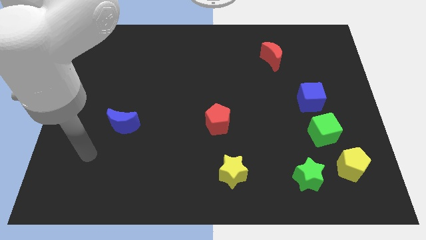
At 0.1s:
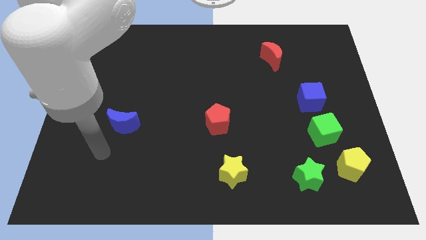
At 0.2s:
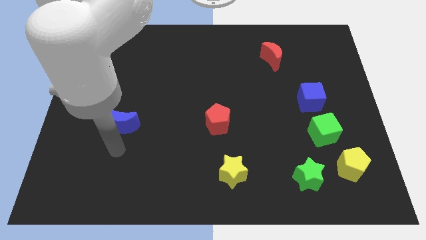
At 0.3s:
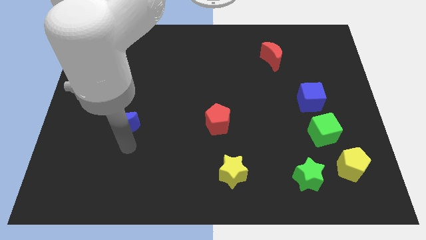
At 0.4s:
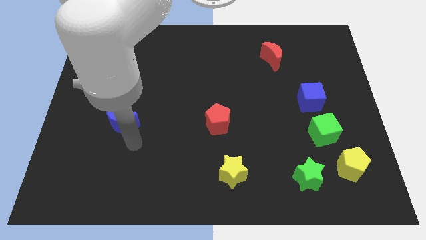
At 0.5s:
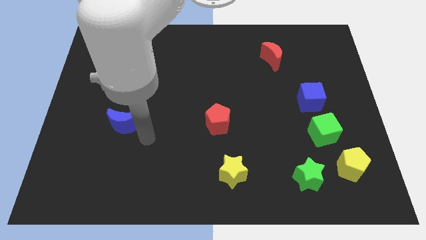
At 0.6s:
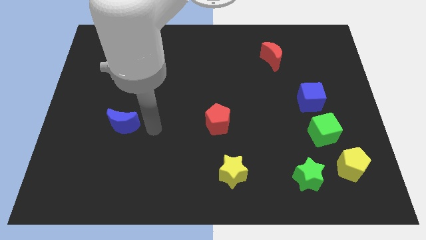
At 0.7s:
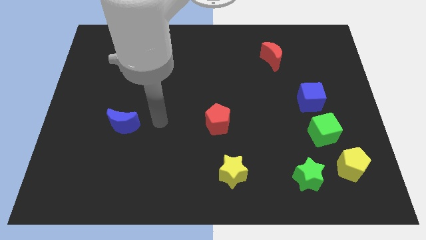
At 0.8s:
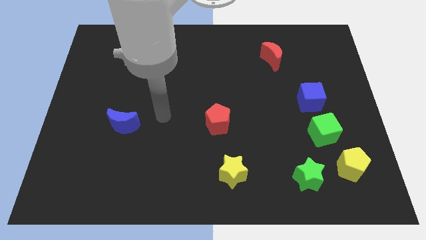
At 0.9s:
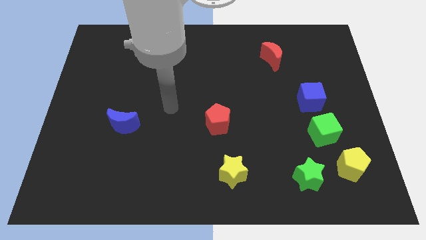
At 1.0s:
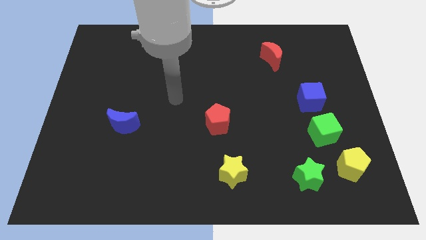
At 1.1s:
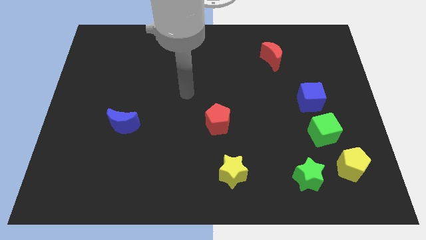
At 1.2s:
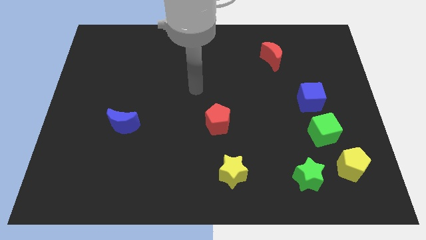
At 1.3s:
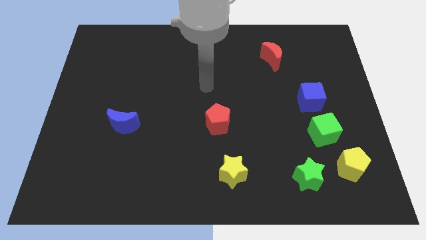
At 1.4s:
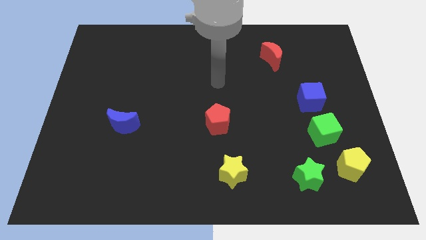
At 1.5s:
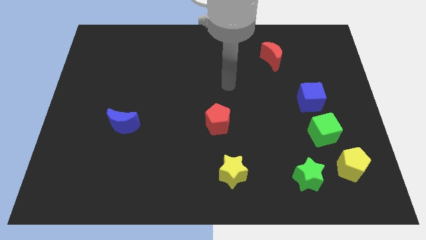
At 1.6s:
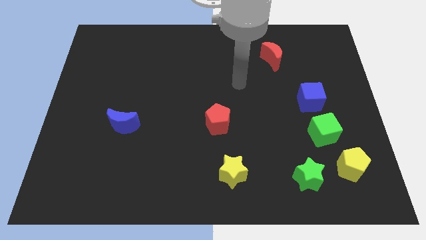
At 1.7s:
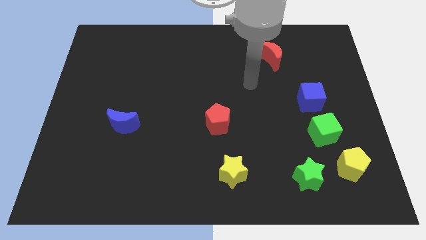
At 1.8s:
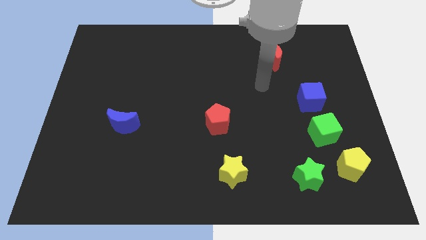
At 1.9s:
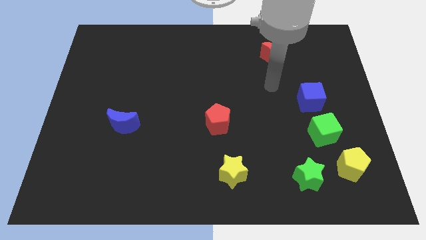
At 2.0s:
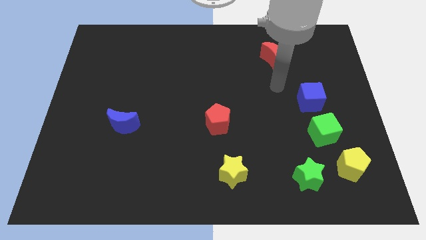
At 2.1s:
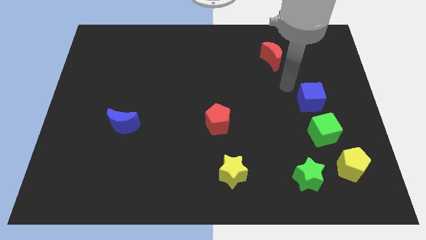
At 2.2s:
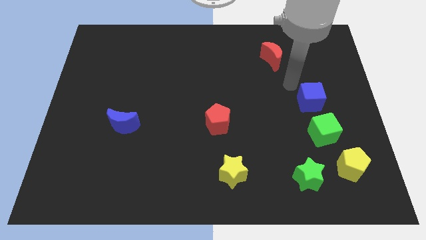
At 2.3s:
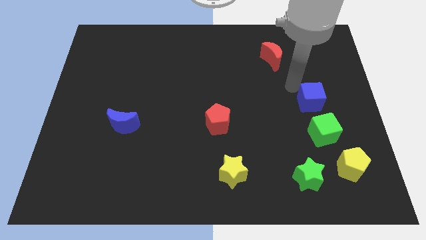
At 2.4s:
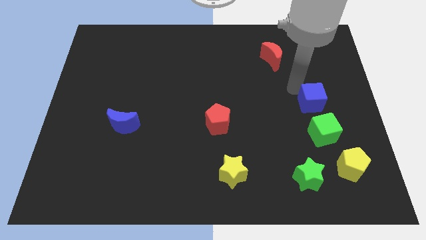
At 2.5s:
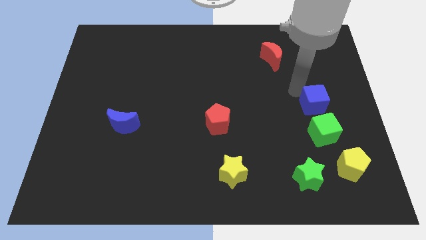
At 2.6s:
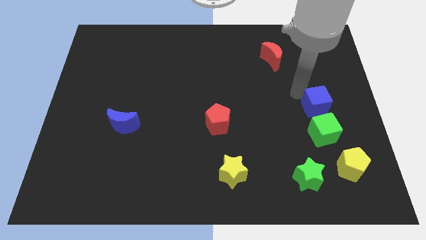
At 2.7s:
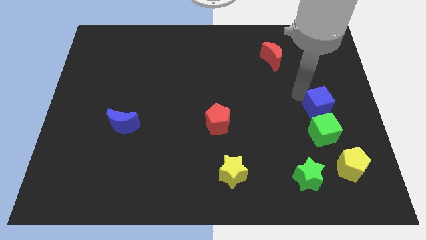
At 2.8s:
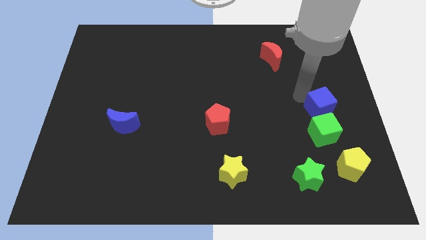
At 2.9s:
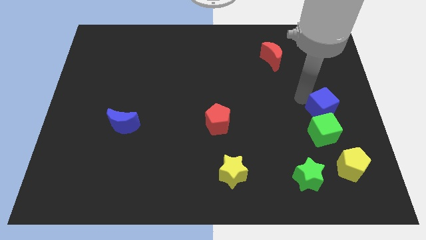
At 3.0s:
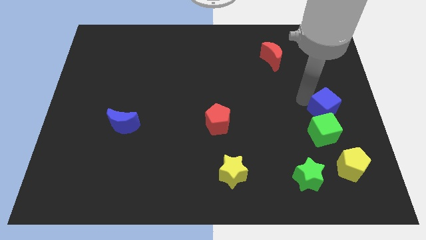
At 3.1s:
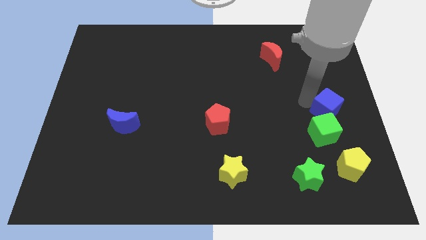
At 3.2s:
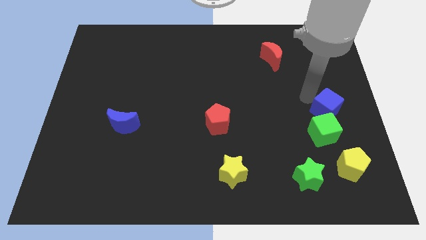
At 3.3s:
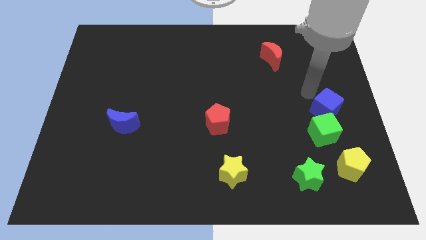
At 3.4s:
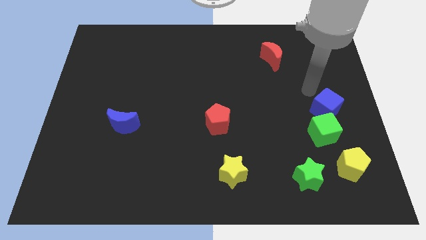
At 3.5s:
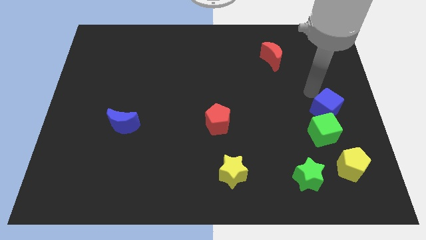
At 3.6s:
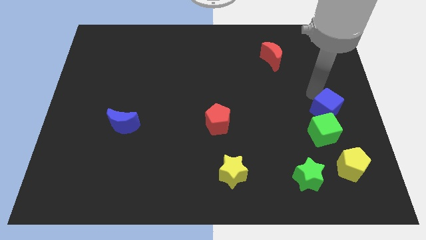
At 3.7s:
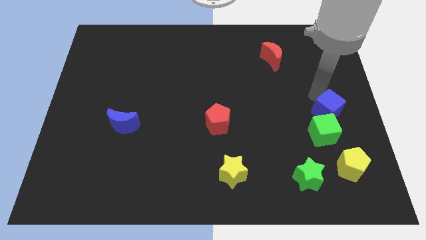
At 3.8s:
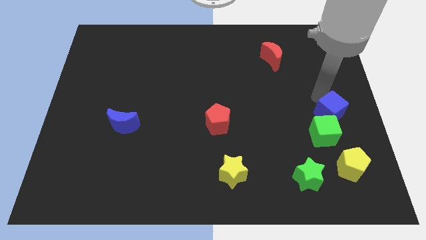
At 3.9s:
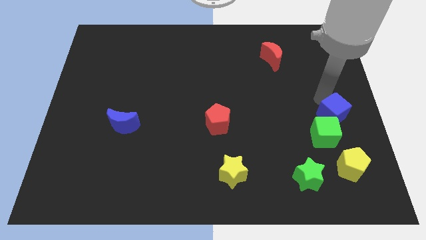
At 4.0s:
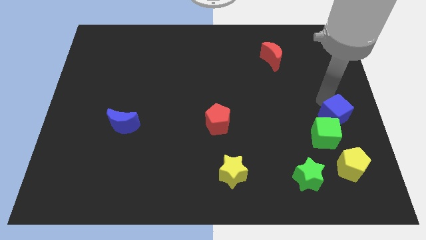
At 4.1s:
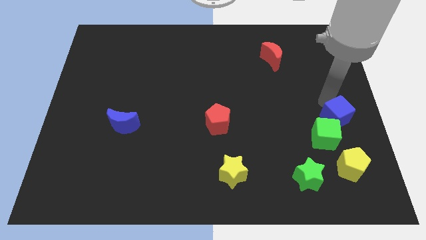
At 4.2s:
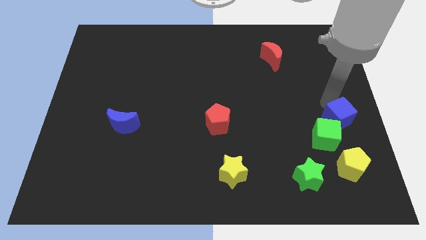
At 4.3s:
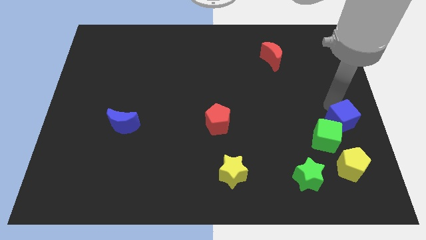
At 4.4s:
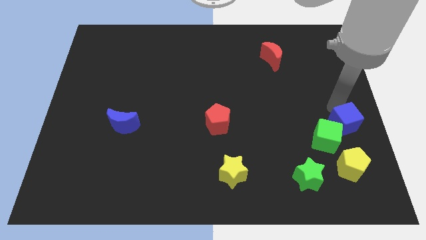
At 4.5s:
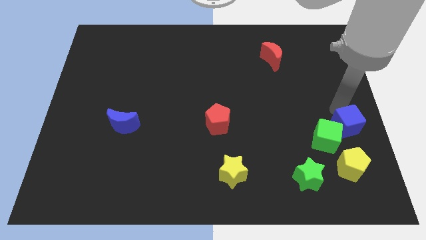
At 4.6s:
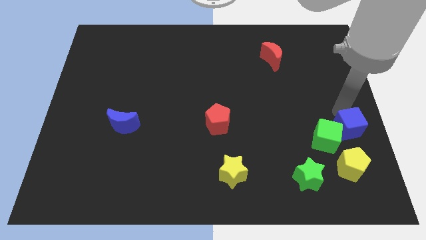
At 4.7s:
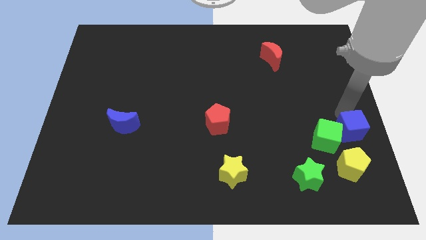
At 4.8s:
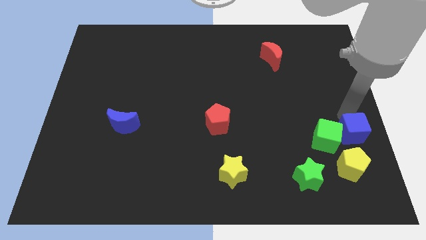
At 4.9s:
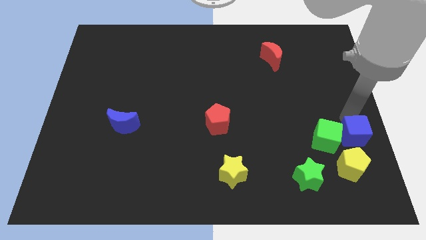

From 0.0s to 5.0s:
slightly push the blue cube down

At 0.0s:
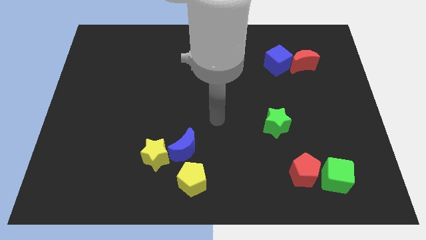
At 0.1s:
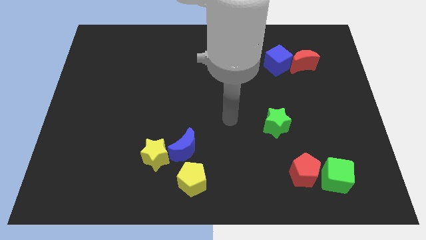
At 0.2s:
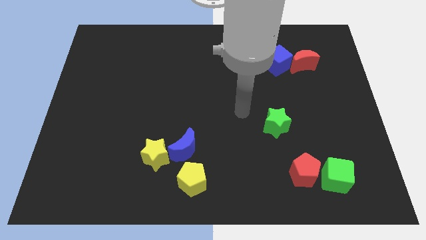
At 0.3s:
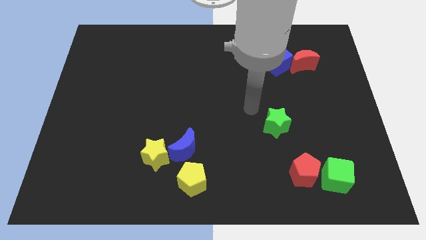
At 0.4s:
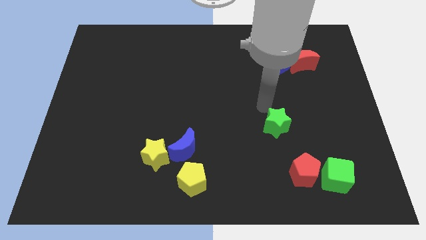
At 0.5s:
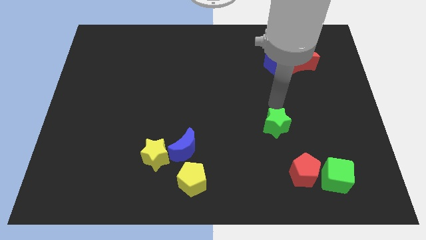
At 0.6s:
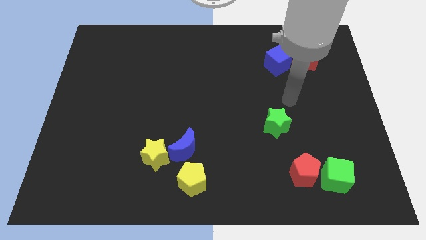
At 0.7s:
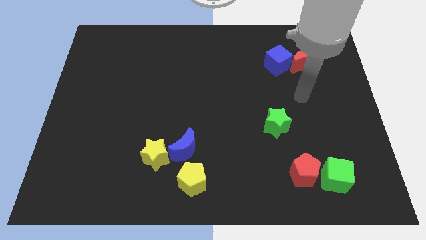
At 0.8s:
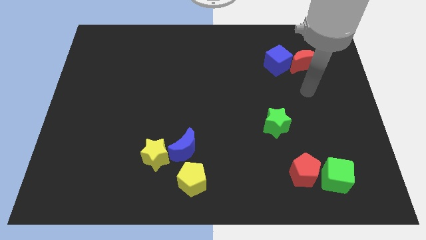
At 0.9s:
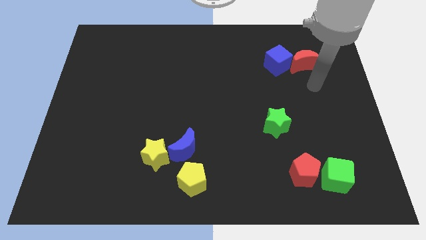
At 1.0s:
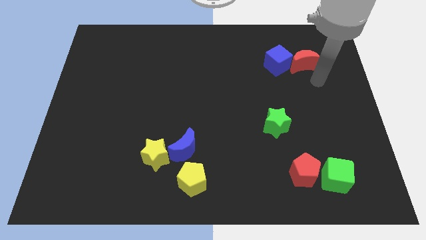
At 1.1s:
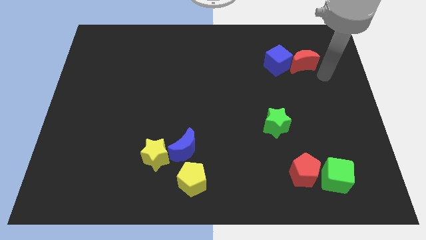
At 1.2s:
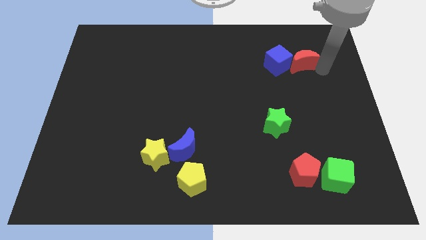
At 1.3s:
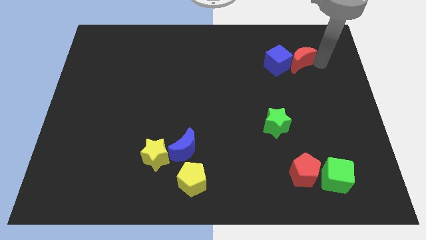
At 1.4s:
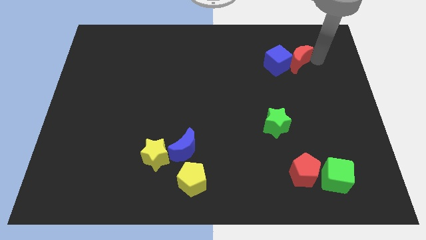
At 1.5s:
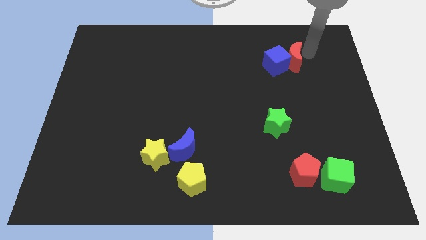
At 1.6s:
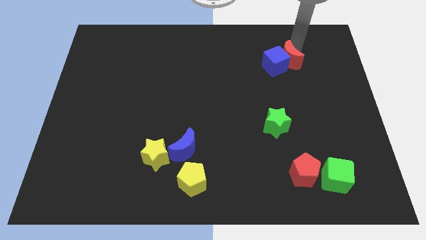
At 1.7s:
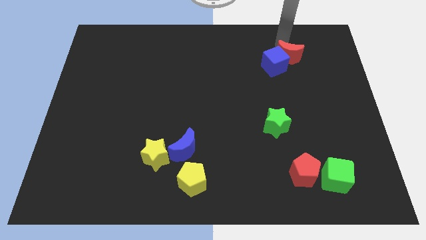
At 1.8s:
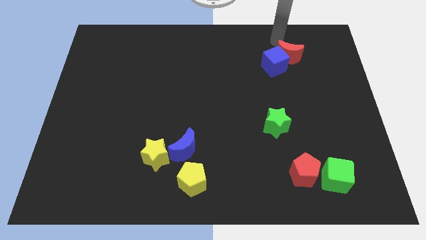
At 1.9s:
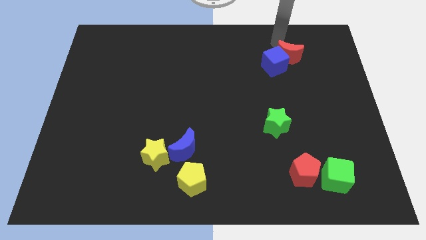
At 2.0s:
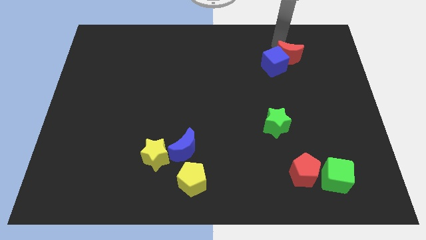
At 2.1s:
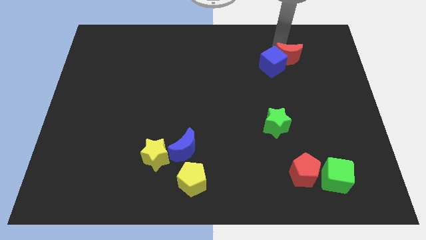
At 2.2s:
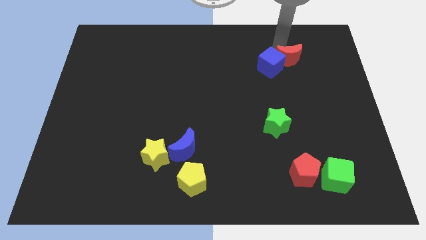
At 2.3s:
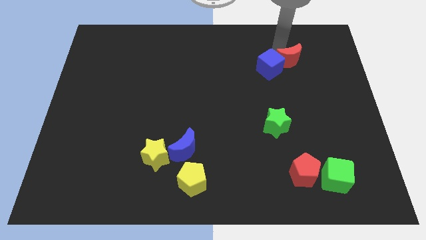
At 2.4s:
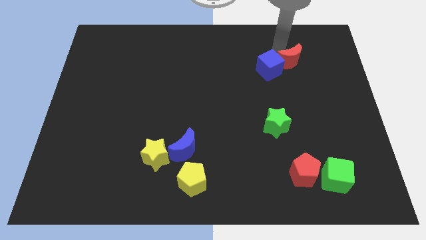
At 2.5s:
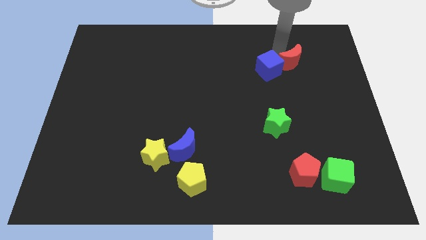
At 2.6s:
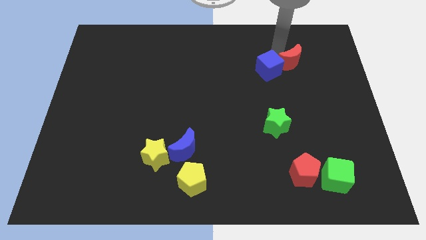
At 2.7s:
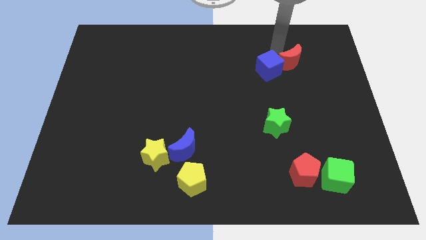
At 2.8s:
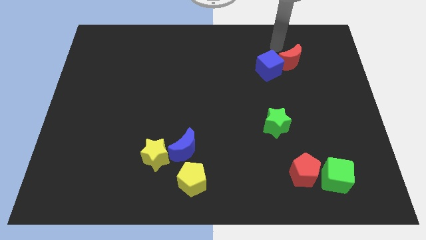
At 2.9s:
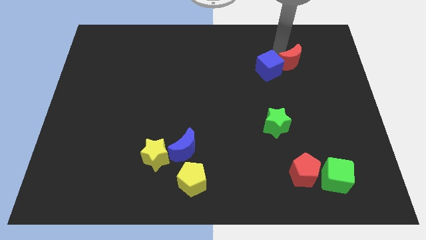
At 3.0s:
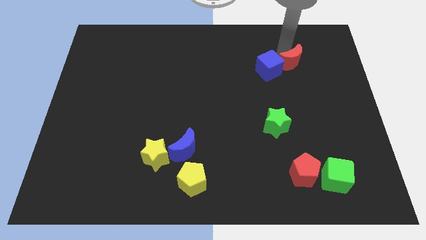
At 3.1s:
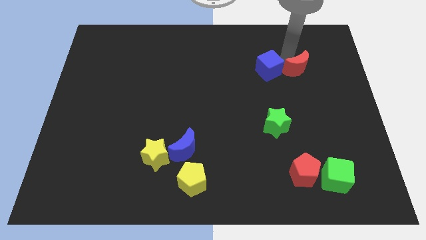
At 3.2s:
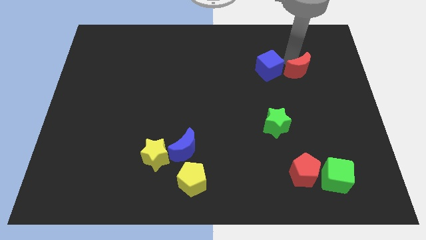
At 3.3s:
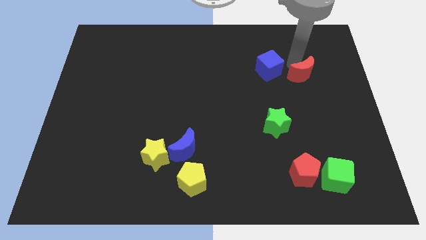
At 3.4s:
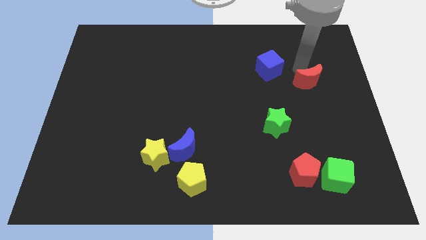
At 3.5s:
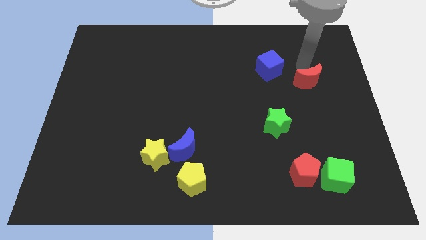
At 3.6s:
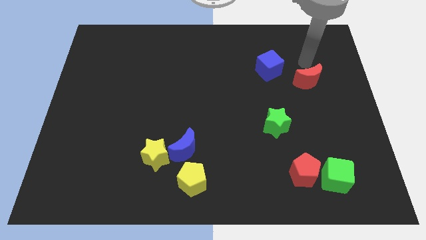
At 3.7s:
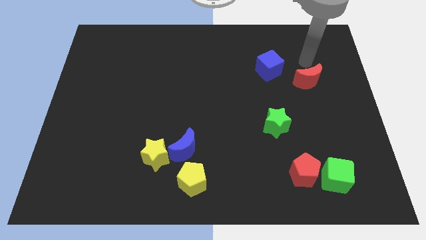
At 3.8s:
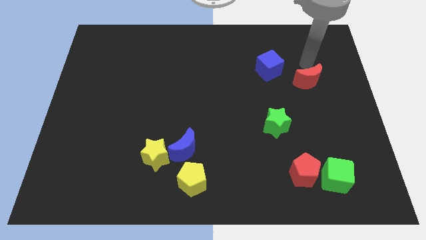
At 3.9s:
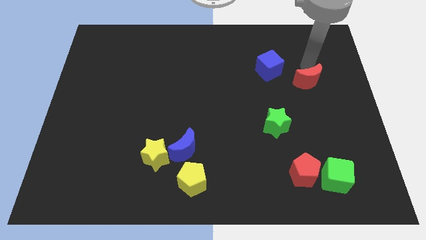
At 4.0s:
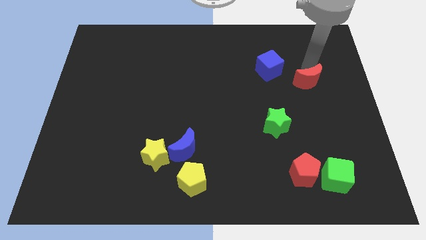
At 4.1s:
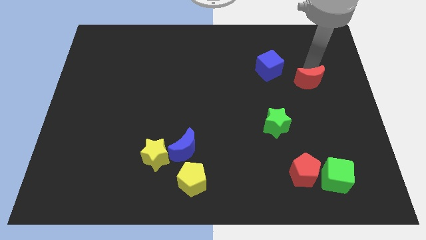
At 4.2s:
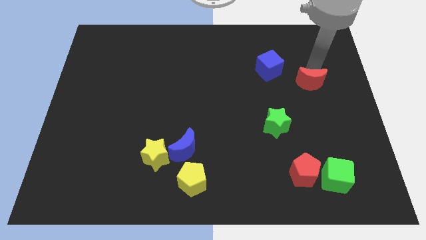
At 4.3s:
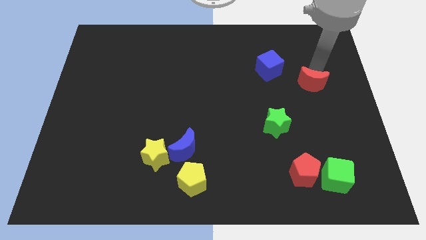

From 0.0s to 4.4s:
push the red moon somewhat downwards
